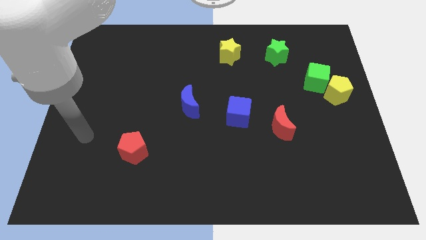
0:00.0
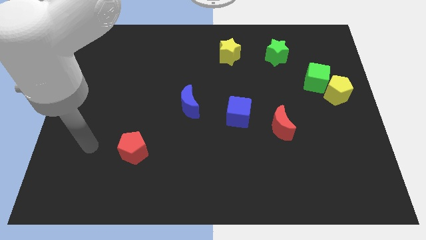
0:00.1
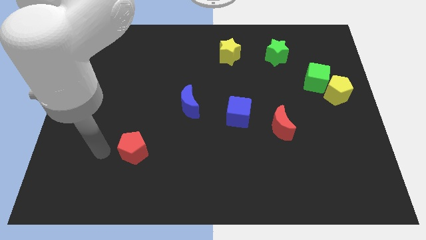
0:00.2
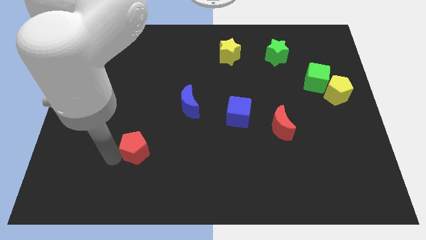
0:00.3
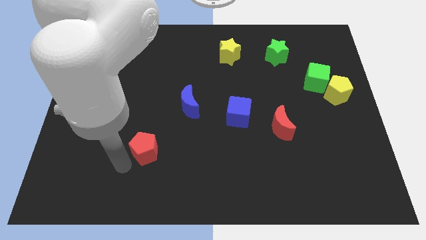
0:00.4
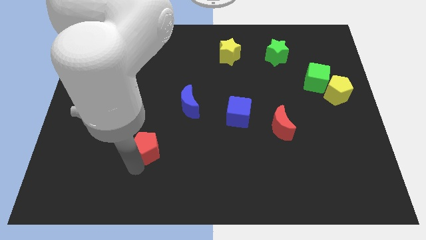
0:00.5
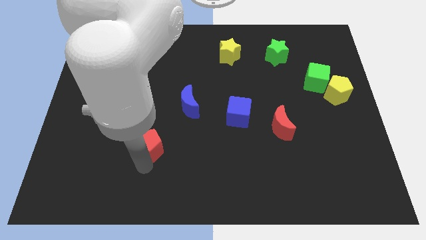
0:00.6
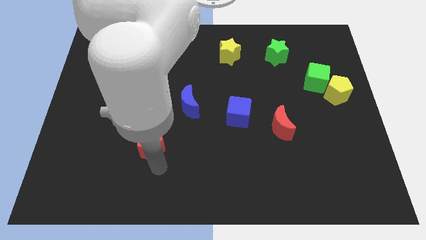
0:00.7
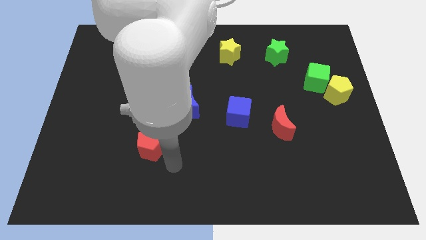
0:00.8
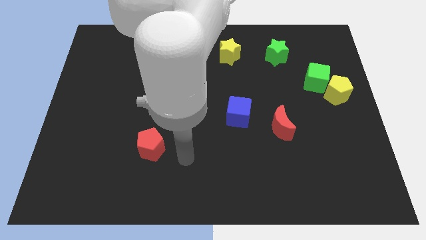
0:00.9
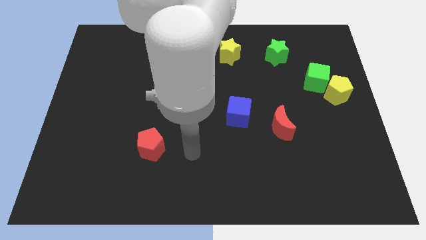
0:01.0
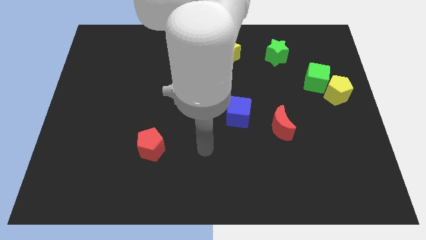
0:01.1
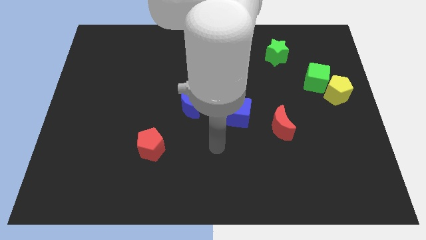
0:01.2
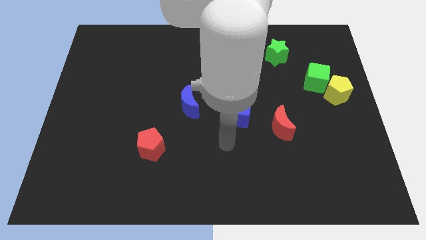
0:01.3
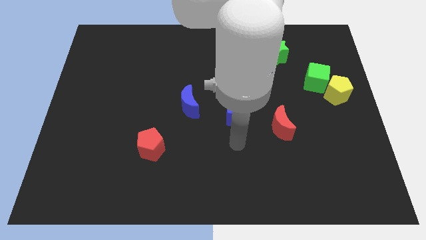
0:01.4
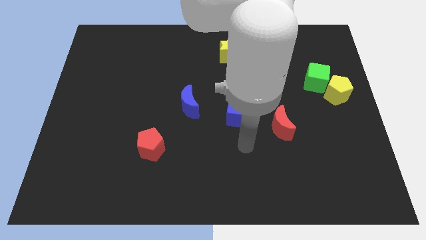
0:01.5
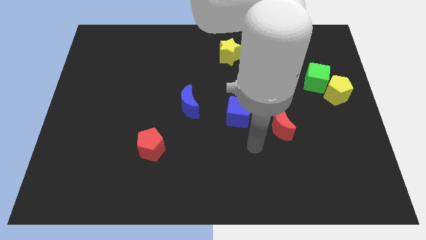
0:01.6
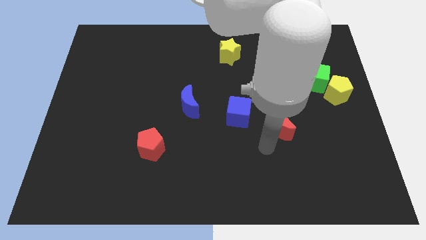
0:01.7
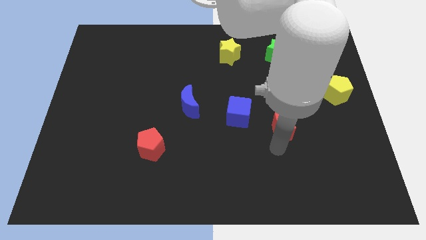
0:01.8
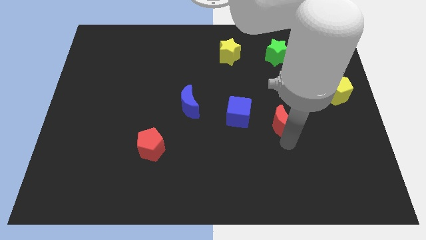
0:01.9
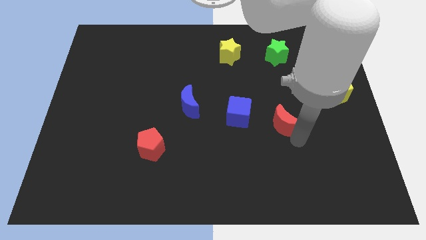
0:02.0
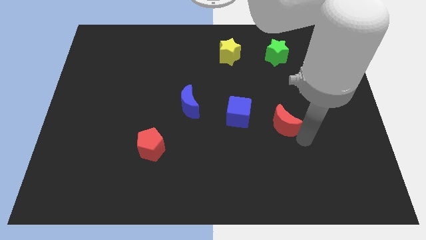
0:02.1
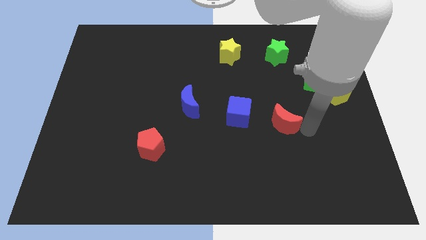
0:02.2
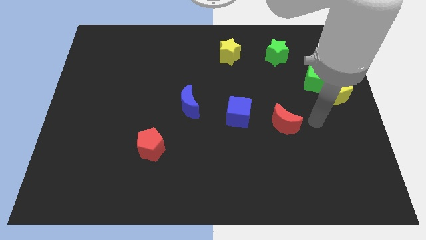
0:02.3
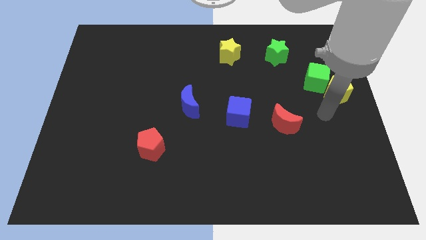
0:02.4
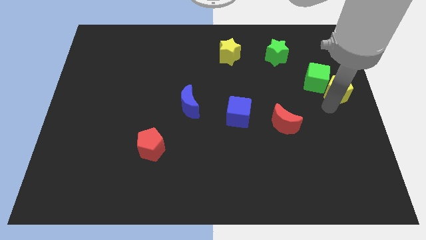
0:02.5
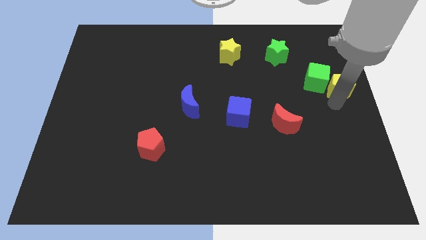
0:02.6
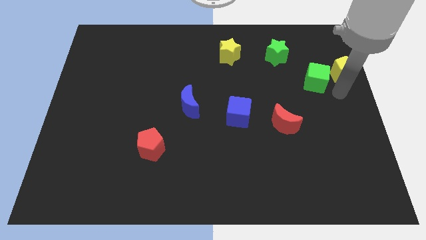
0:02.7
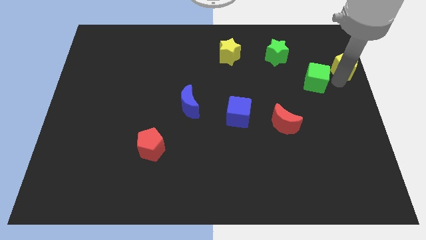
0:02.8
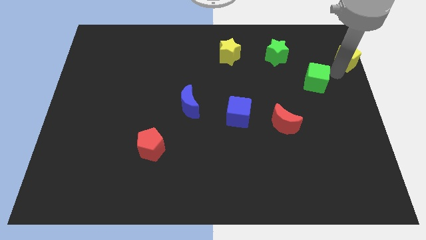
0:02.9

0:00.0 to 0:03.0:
pull the green cube apart from the yellow pentagon

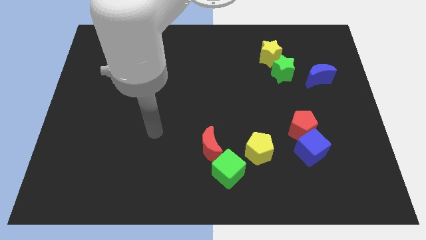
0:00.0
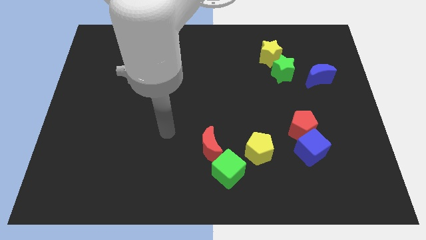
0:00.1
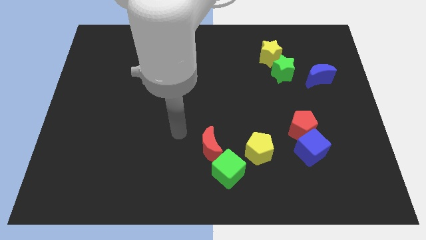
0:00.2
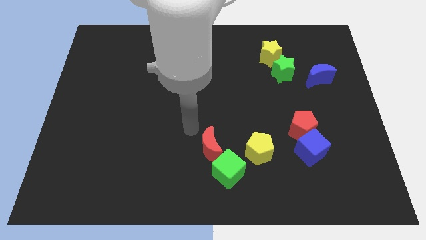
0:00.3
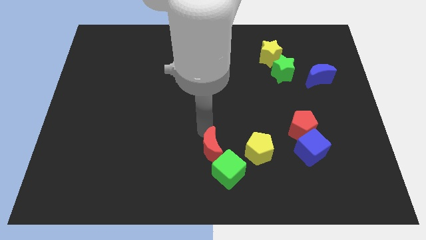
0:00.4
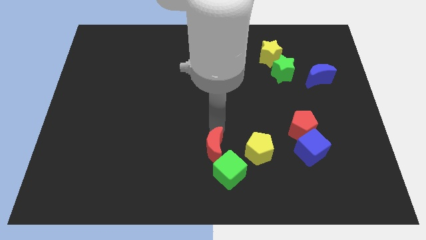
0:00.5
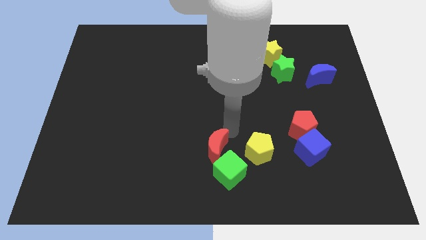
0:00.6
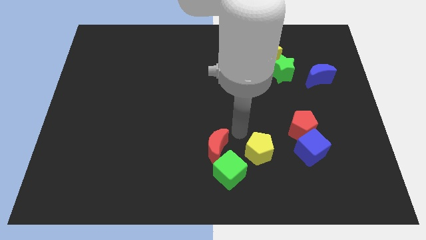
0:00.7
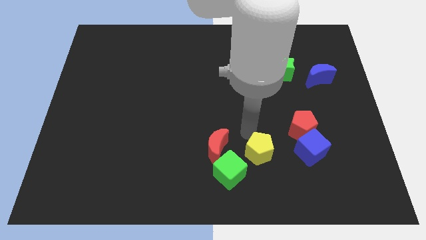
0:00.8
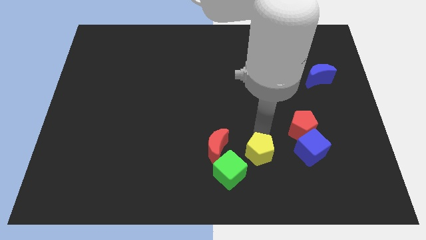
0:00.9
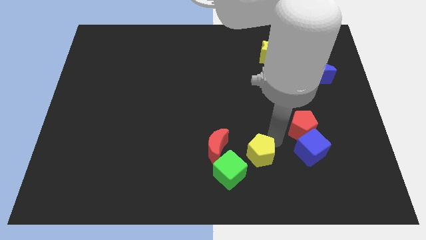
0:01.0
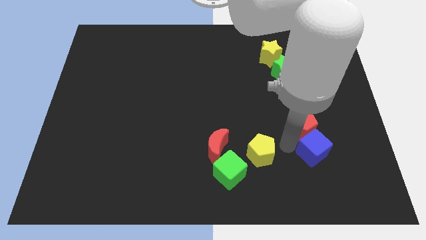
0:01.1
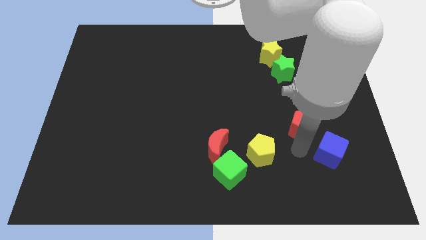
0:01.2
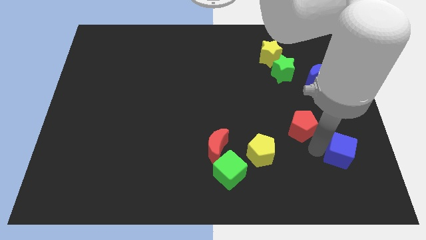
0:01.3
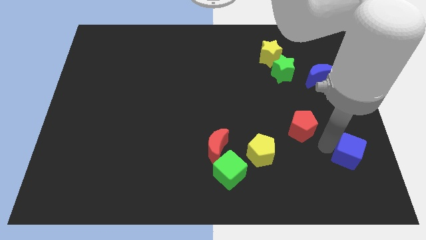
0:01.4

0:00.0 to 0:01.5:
move the red pentagon away from the blue cube

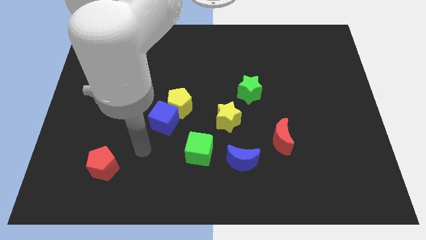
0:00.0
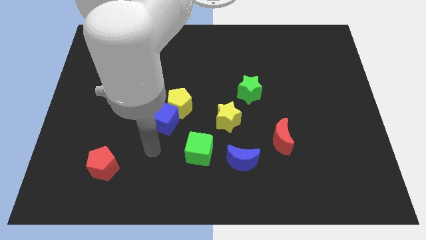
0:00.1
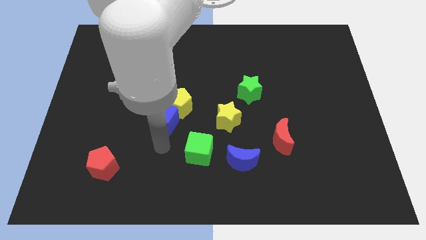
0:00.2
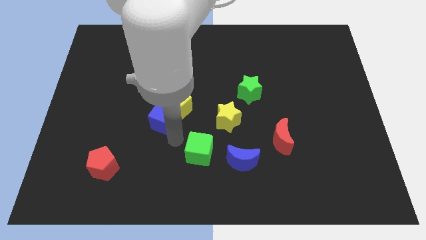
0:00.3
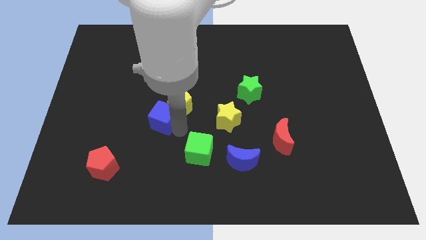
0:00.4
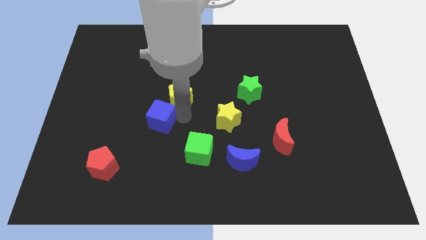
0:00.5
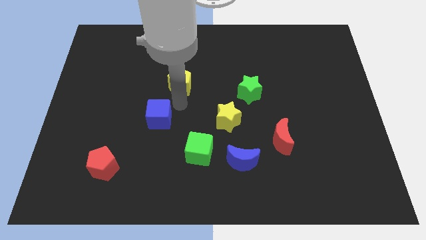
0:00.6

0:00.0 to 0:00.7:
pull the blue cube apart from the yellow pentagon

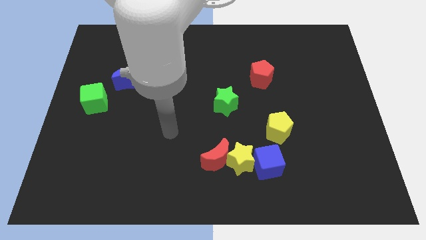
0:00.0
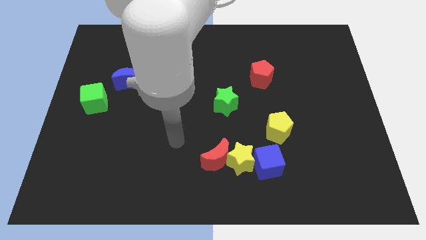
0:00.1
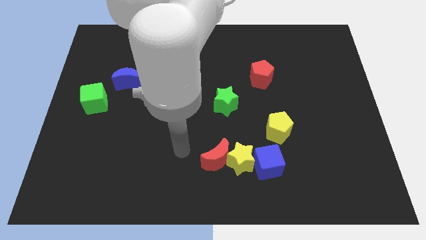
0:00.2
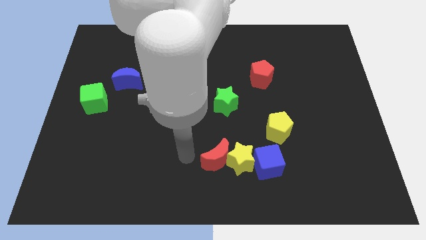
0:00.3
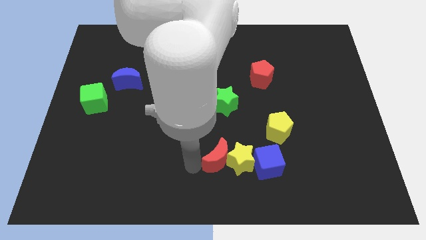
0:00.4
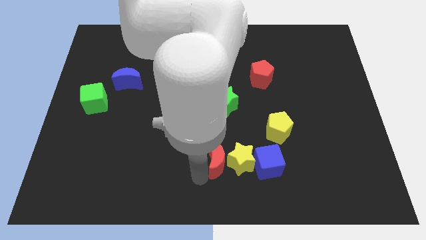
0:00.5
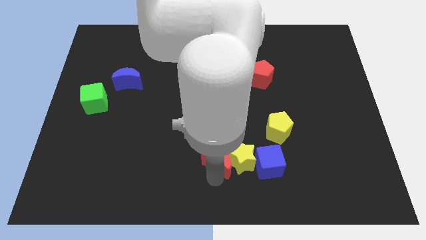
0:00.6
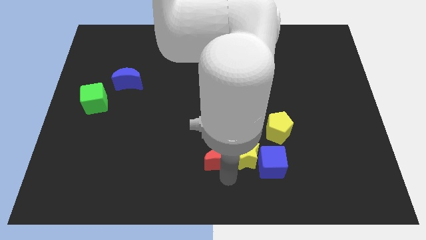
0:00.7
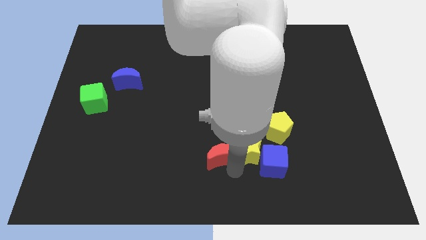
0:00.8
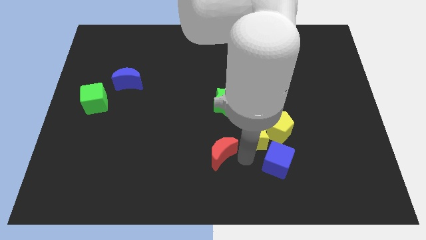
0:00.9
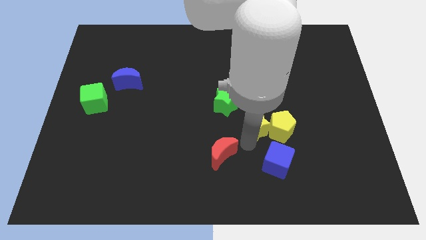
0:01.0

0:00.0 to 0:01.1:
pull the red moon apart from the yellow star

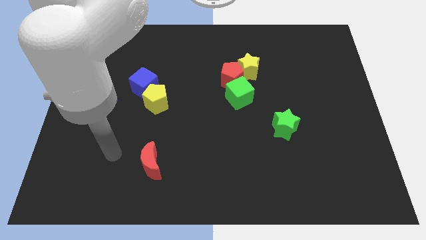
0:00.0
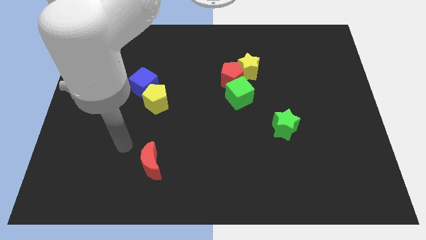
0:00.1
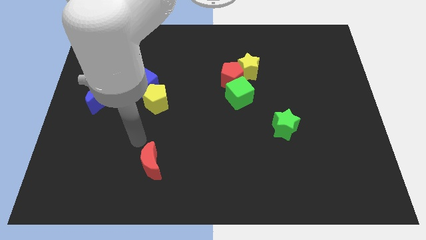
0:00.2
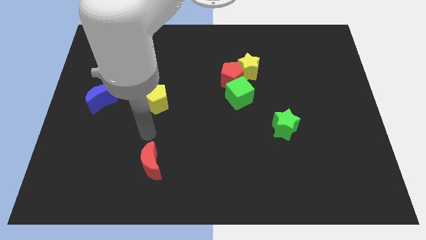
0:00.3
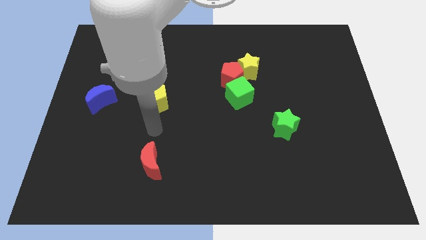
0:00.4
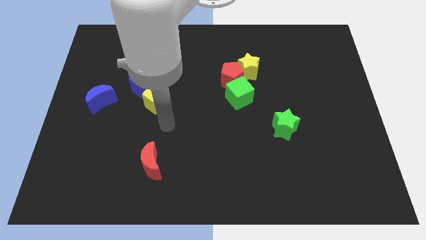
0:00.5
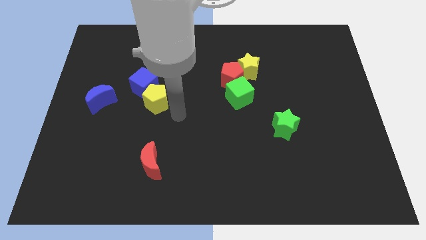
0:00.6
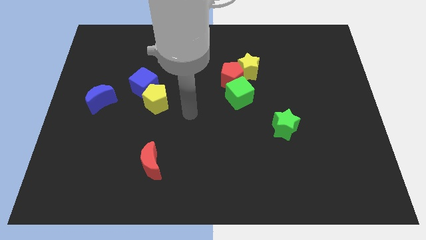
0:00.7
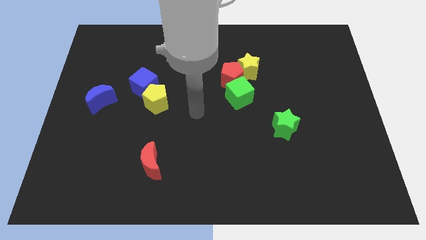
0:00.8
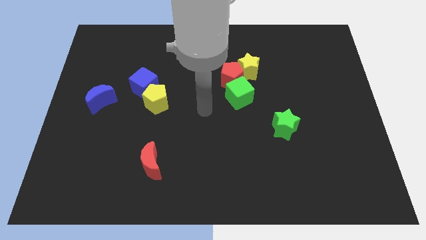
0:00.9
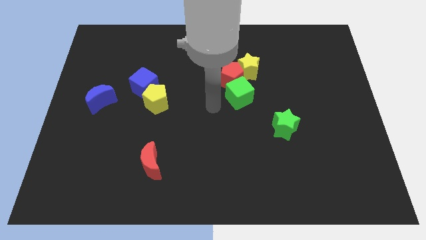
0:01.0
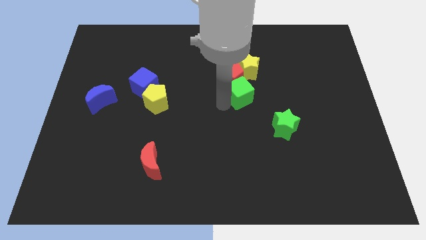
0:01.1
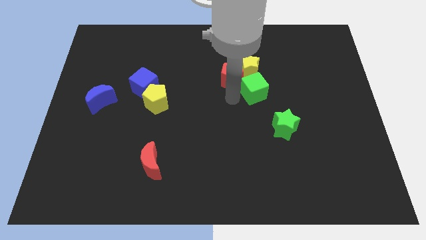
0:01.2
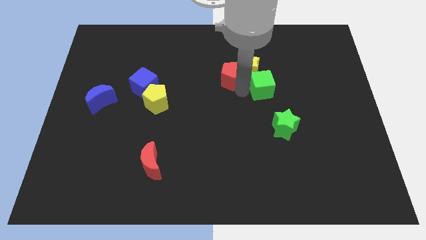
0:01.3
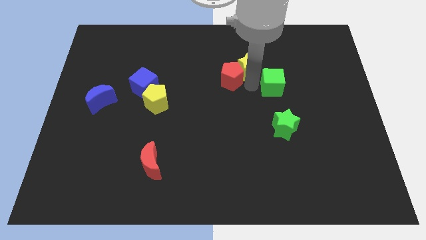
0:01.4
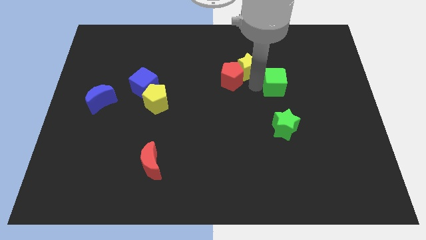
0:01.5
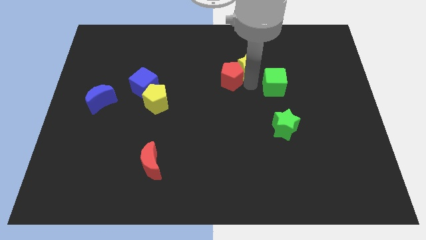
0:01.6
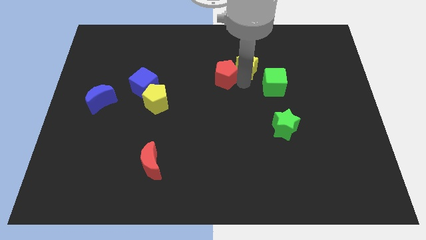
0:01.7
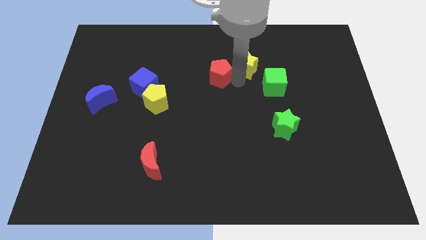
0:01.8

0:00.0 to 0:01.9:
move the red pentagon away from the yellow star and green cube

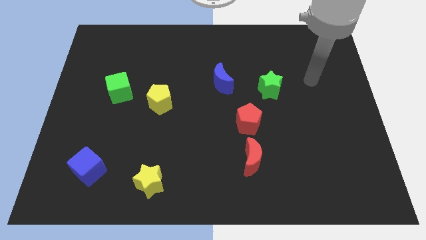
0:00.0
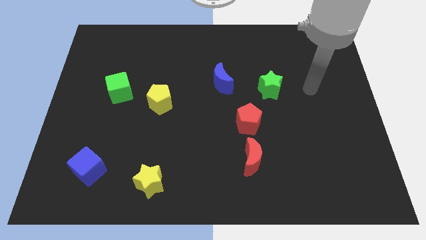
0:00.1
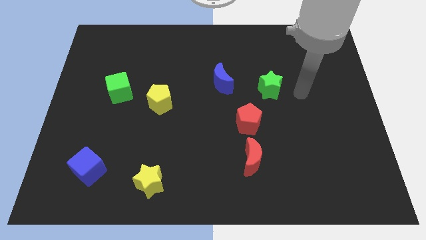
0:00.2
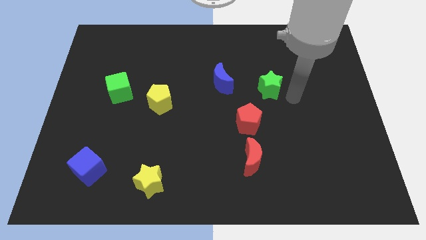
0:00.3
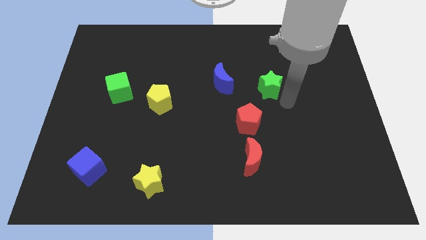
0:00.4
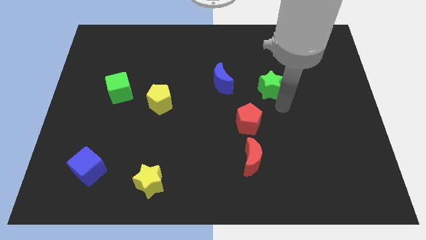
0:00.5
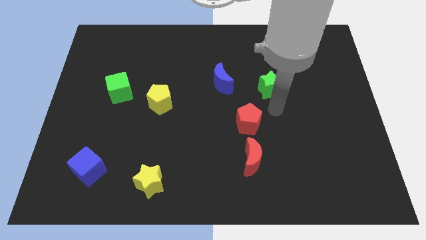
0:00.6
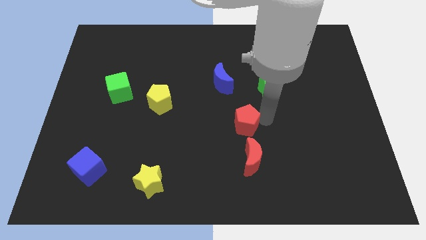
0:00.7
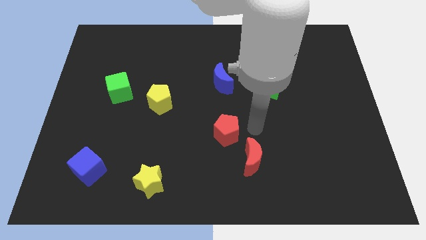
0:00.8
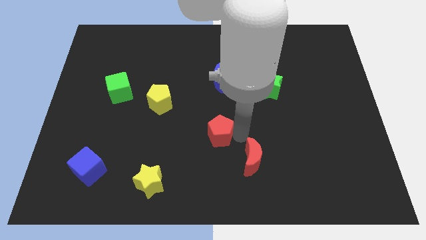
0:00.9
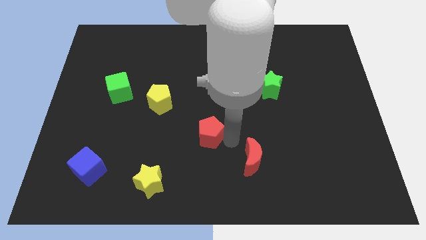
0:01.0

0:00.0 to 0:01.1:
move the red moon away from the red pentagon
